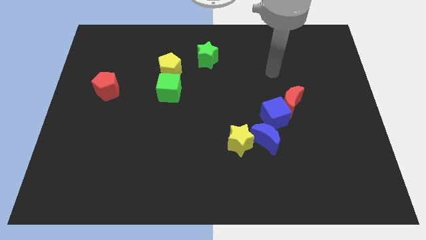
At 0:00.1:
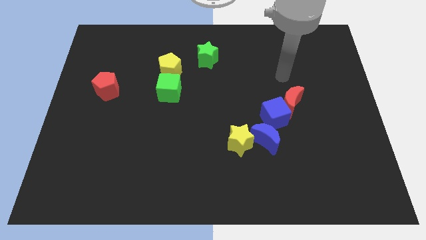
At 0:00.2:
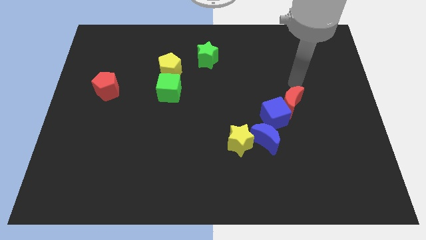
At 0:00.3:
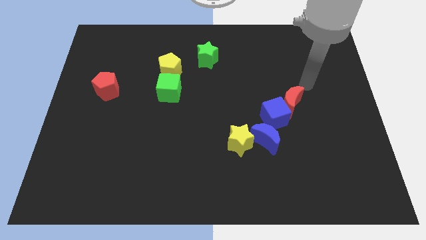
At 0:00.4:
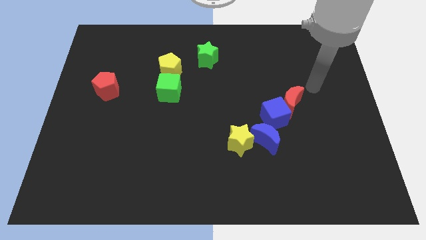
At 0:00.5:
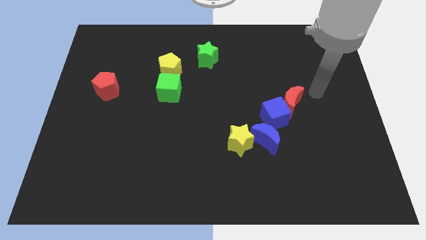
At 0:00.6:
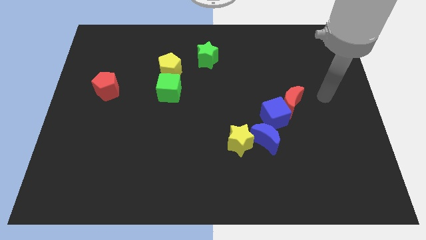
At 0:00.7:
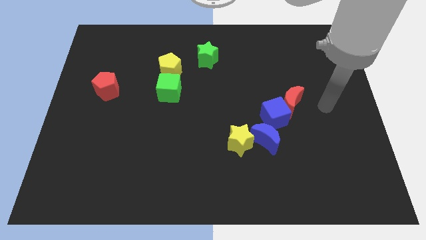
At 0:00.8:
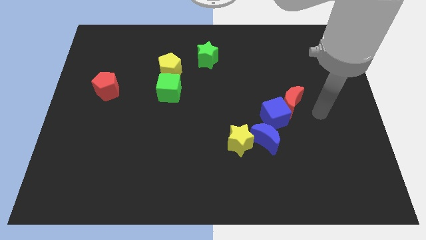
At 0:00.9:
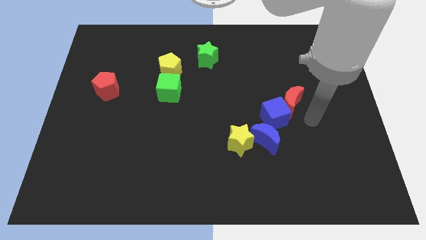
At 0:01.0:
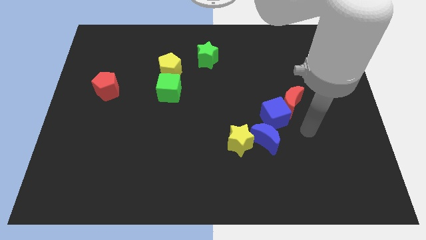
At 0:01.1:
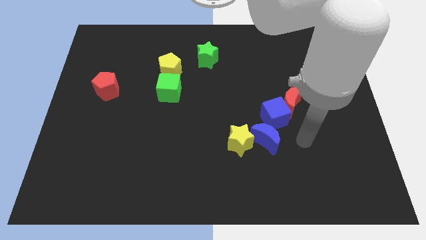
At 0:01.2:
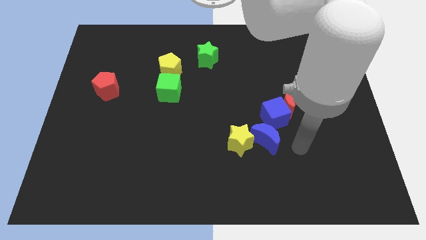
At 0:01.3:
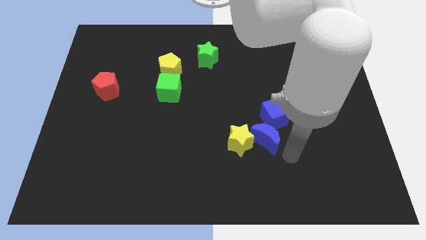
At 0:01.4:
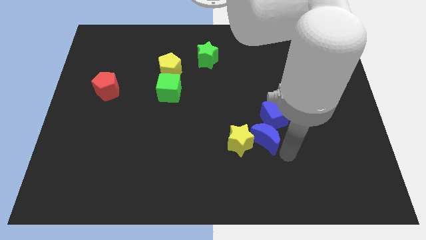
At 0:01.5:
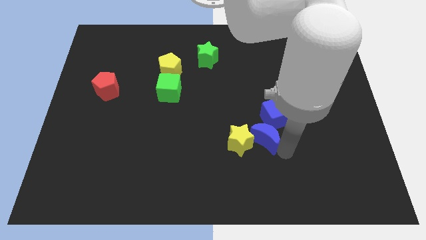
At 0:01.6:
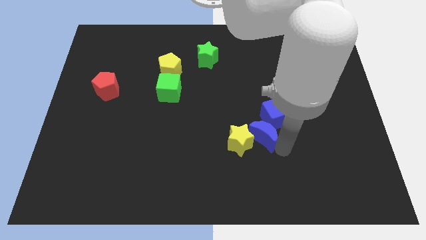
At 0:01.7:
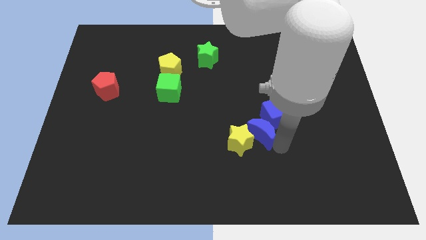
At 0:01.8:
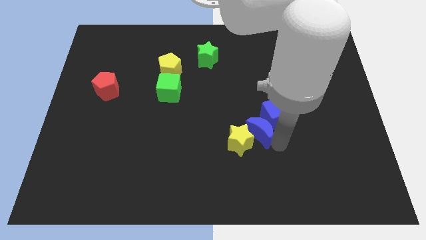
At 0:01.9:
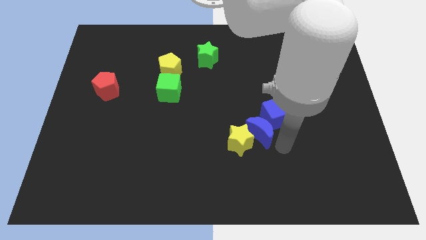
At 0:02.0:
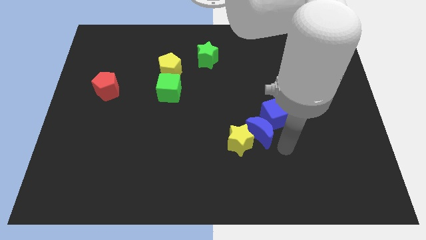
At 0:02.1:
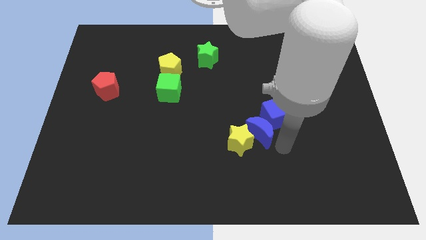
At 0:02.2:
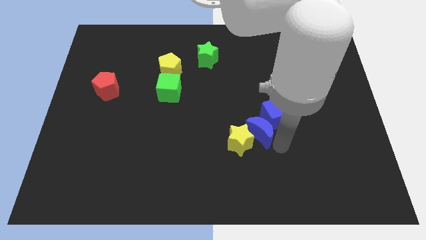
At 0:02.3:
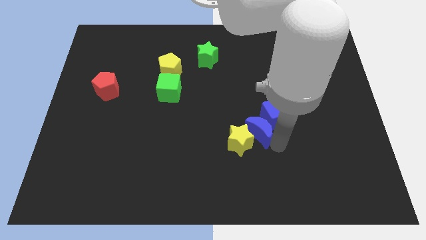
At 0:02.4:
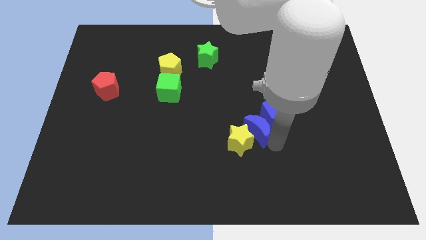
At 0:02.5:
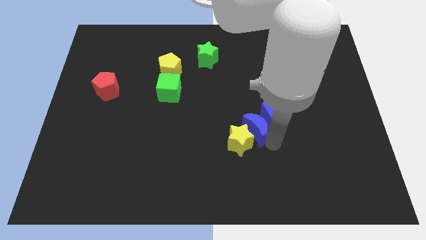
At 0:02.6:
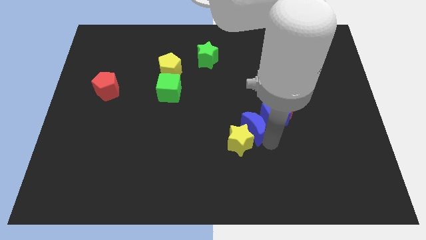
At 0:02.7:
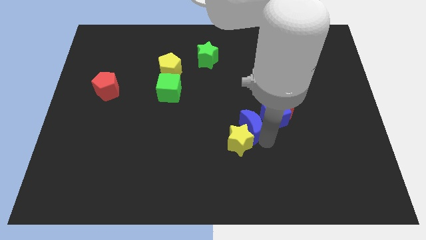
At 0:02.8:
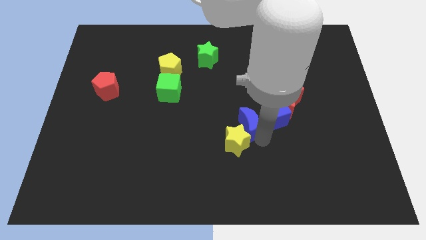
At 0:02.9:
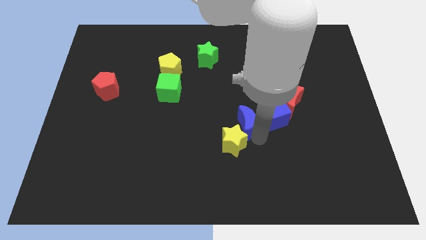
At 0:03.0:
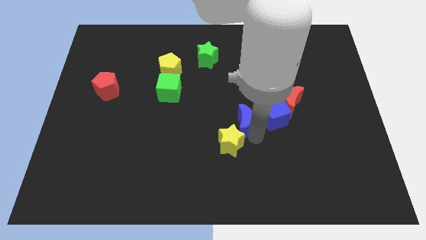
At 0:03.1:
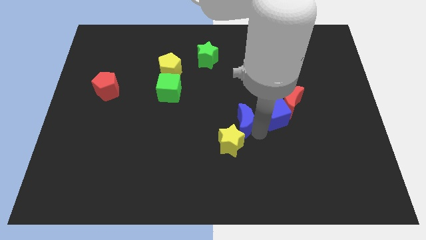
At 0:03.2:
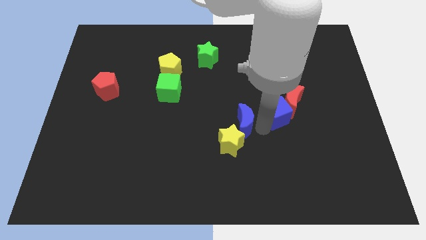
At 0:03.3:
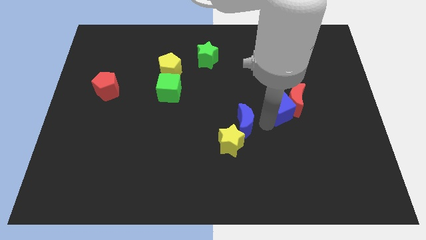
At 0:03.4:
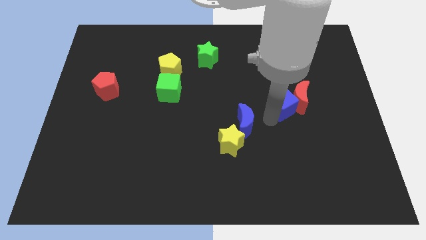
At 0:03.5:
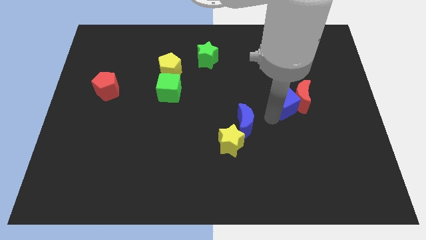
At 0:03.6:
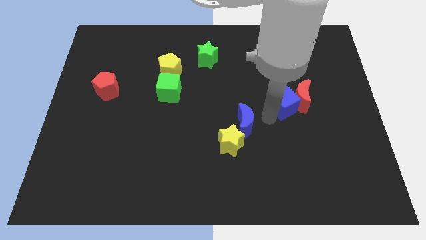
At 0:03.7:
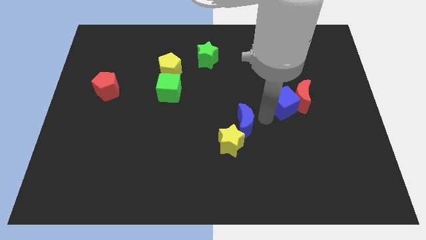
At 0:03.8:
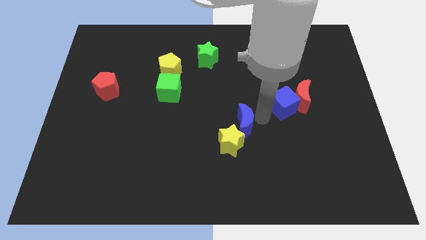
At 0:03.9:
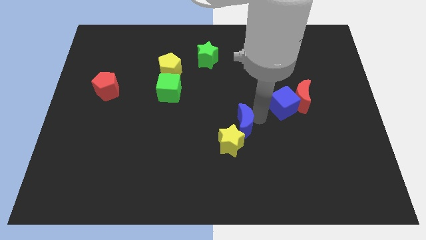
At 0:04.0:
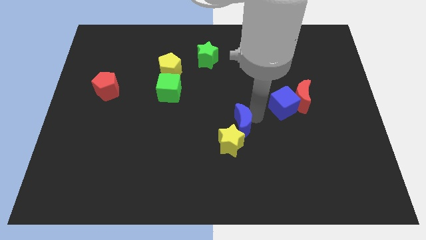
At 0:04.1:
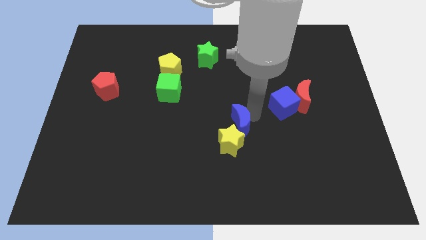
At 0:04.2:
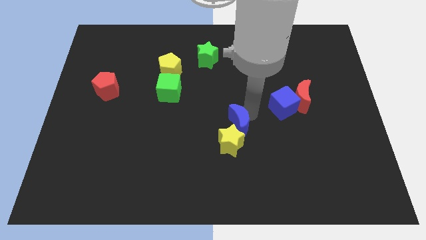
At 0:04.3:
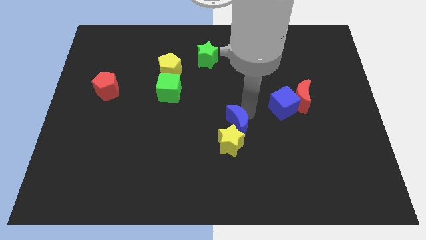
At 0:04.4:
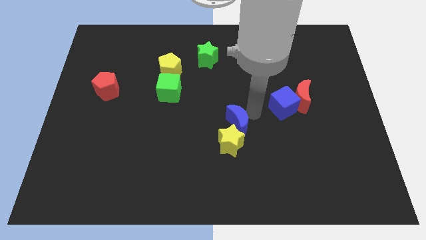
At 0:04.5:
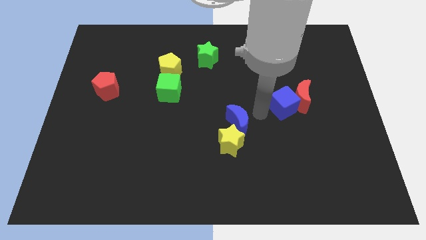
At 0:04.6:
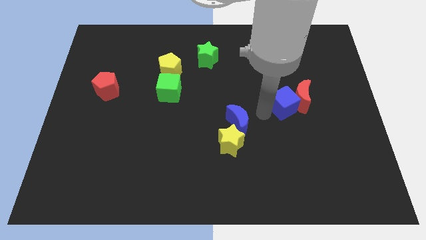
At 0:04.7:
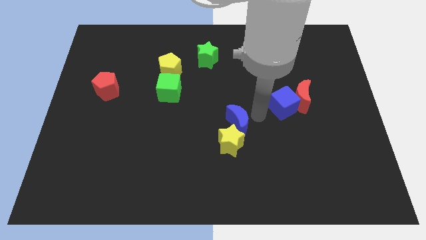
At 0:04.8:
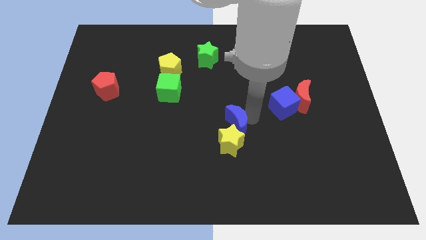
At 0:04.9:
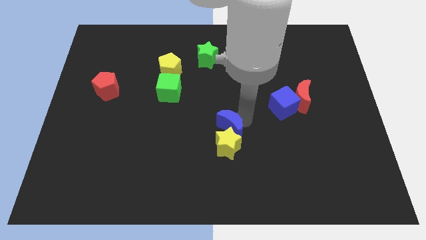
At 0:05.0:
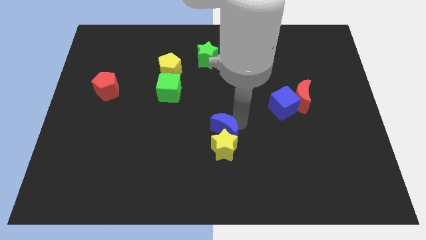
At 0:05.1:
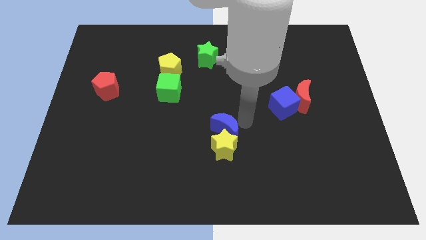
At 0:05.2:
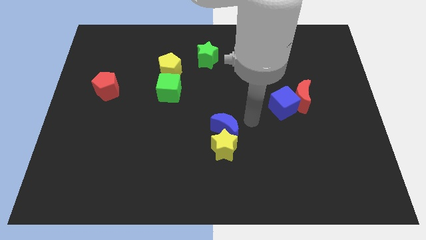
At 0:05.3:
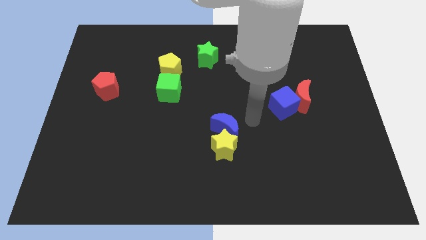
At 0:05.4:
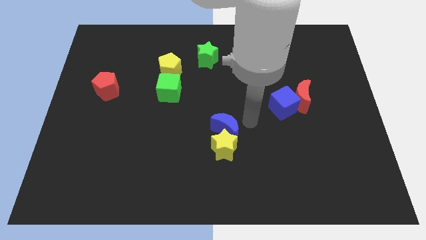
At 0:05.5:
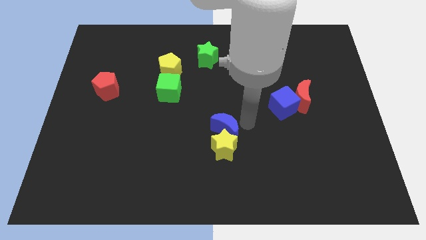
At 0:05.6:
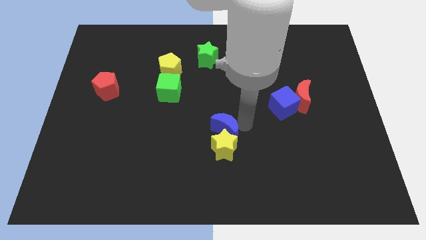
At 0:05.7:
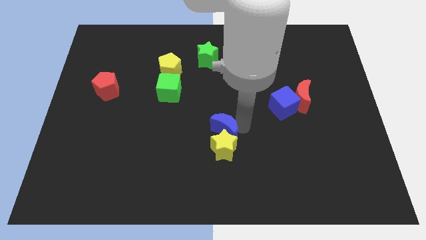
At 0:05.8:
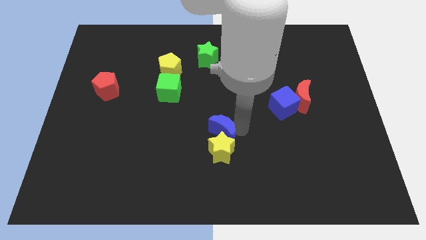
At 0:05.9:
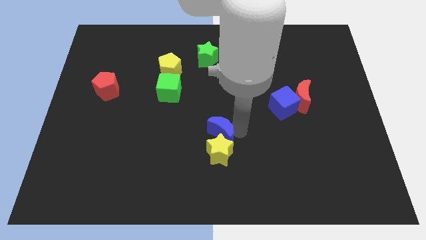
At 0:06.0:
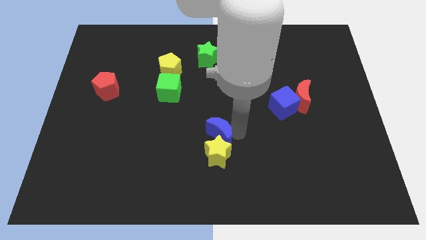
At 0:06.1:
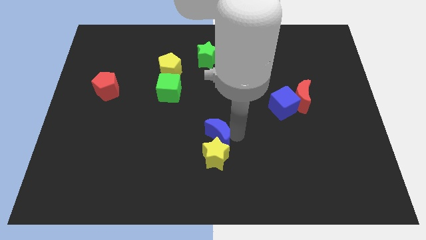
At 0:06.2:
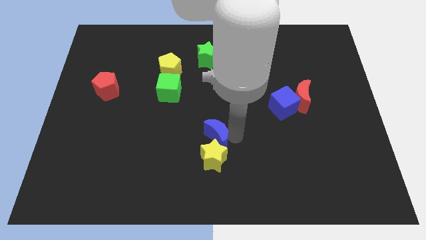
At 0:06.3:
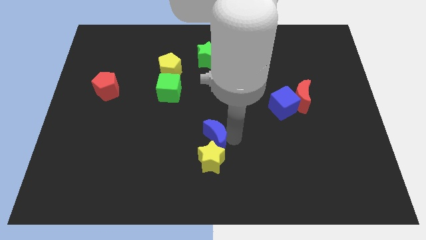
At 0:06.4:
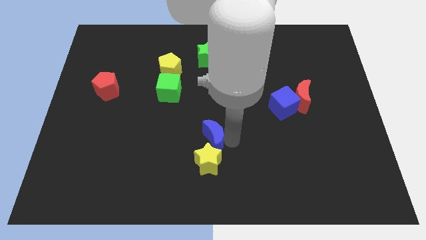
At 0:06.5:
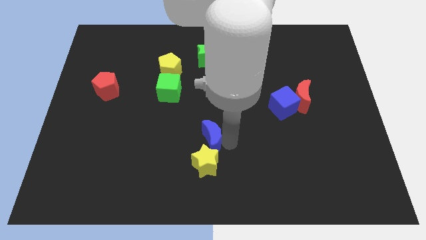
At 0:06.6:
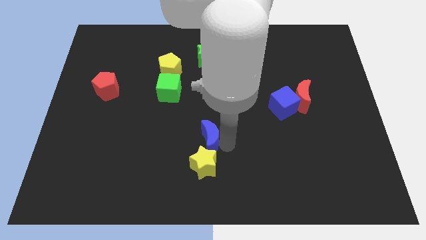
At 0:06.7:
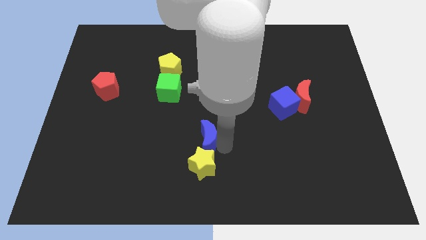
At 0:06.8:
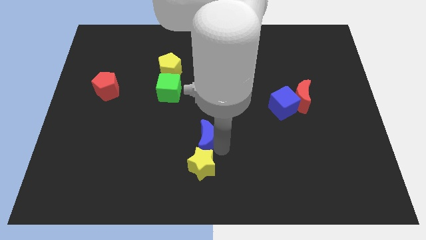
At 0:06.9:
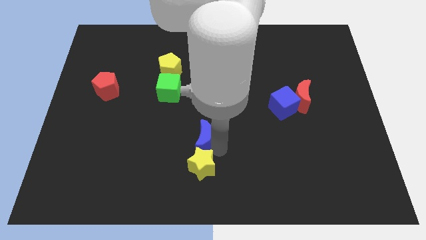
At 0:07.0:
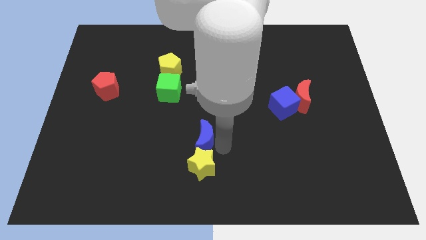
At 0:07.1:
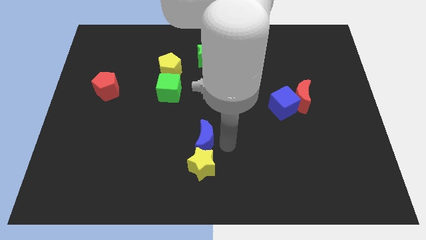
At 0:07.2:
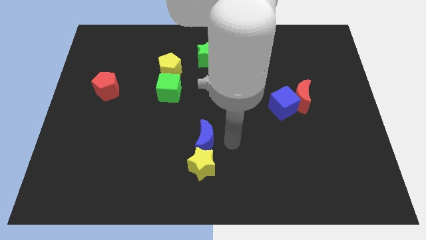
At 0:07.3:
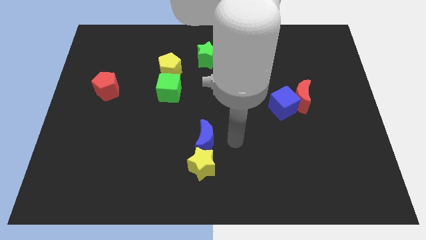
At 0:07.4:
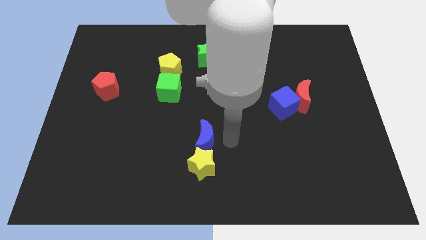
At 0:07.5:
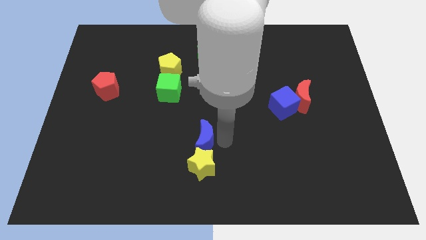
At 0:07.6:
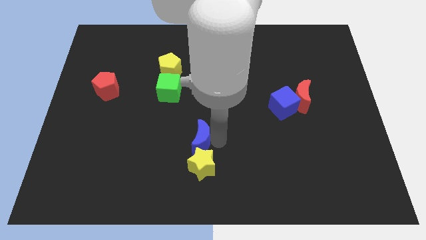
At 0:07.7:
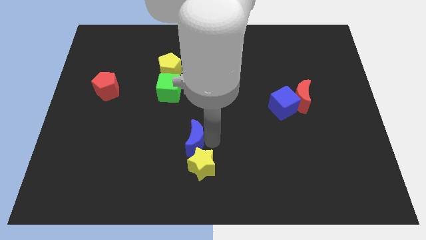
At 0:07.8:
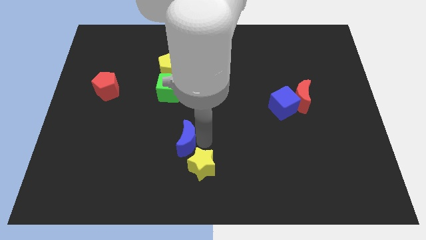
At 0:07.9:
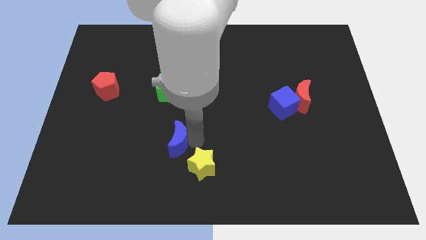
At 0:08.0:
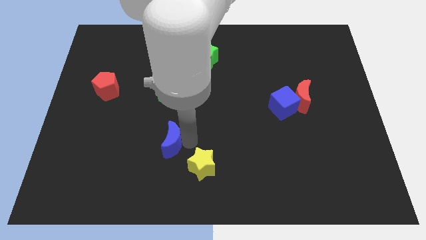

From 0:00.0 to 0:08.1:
move the blue moon to the left

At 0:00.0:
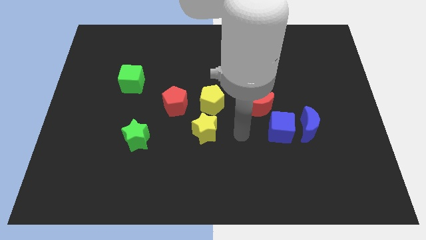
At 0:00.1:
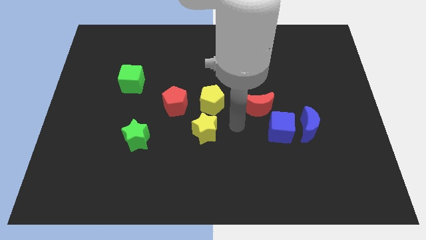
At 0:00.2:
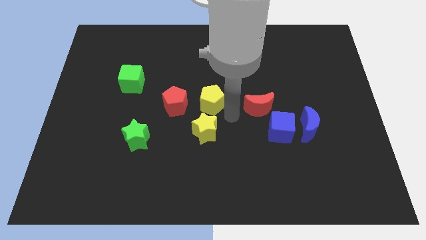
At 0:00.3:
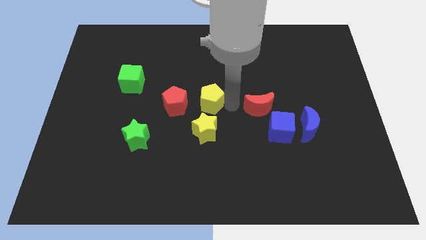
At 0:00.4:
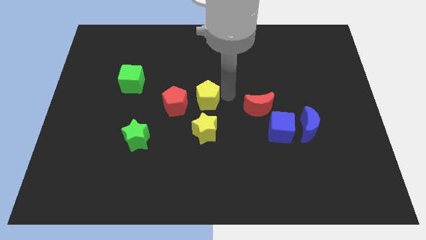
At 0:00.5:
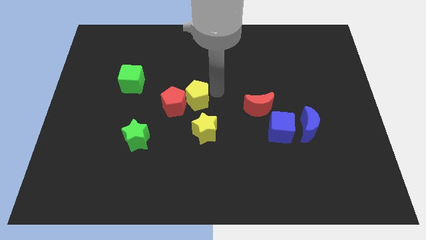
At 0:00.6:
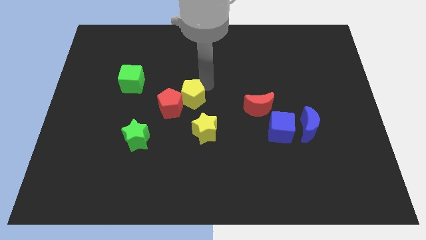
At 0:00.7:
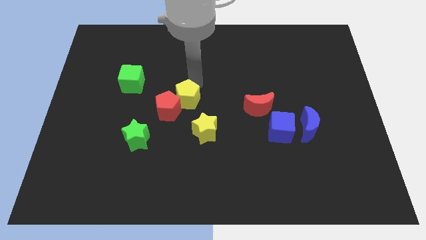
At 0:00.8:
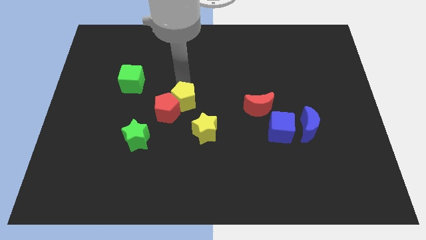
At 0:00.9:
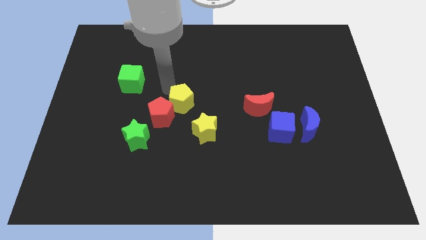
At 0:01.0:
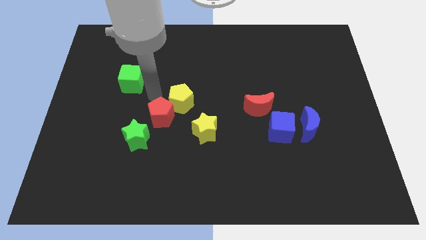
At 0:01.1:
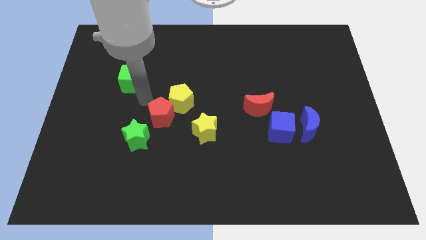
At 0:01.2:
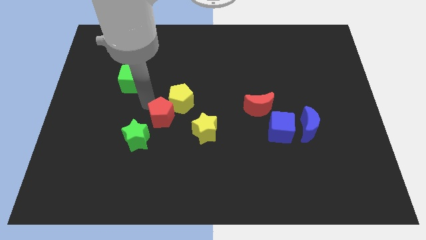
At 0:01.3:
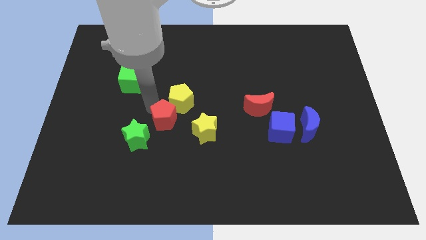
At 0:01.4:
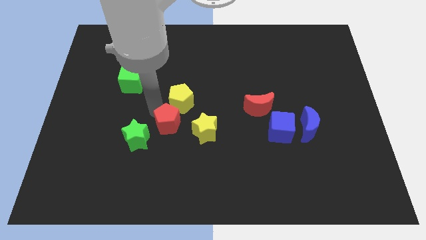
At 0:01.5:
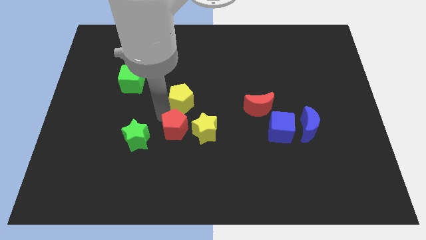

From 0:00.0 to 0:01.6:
push the red pentagon a little bit downwards
